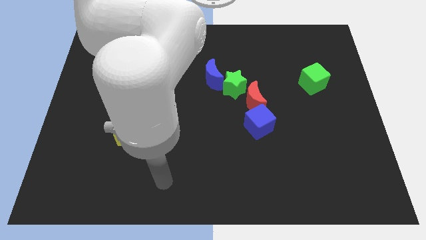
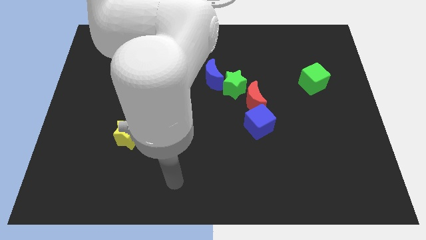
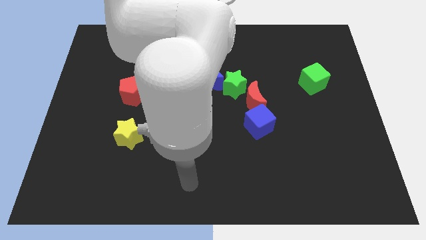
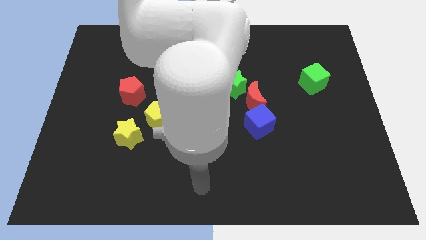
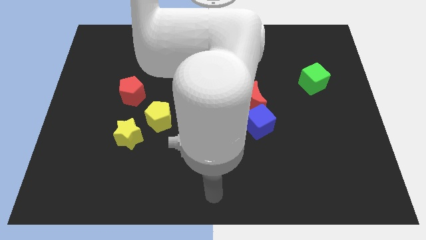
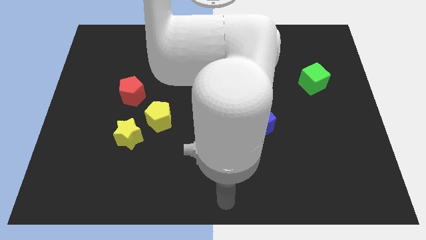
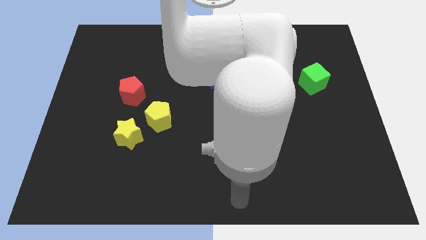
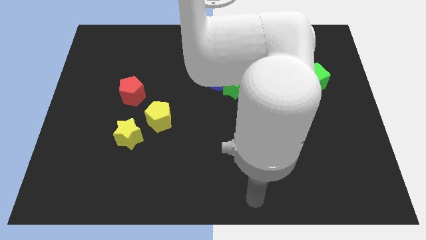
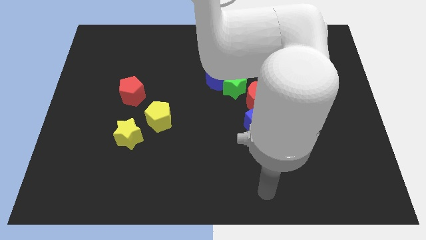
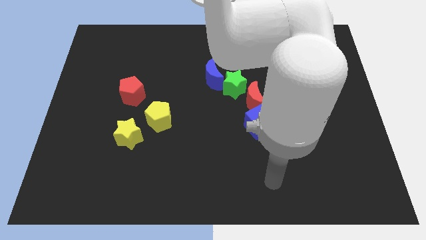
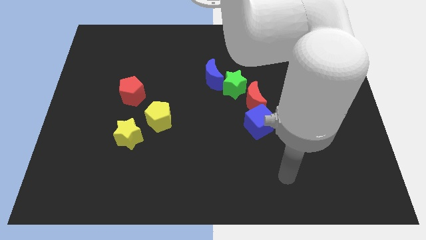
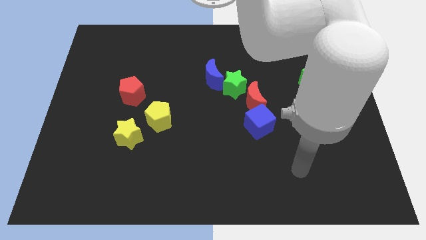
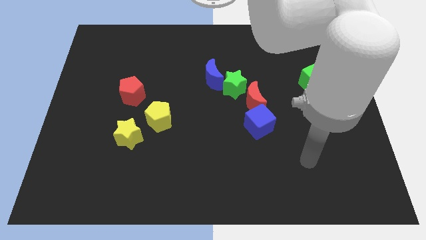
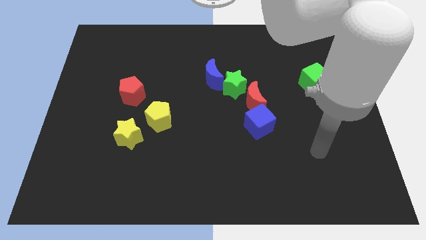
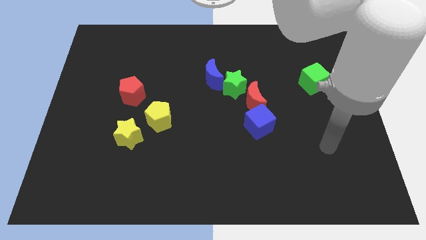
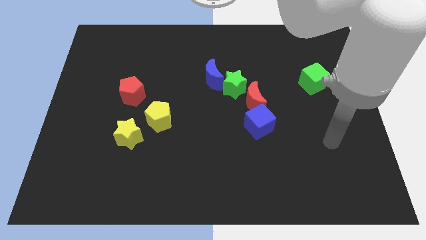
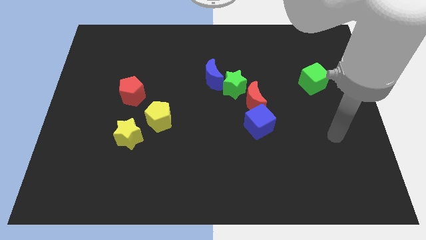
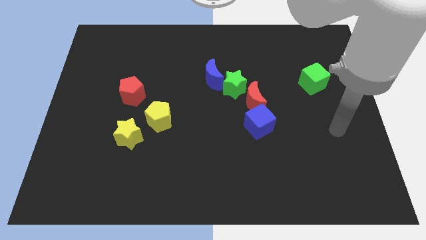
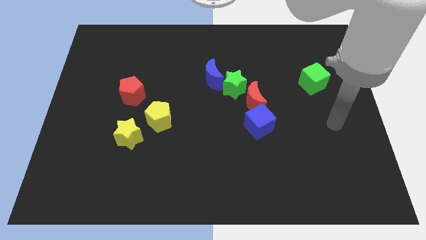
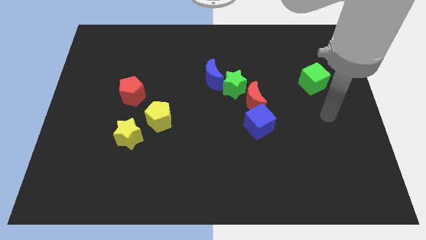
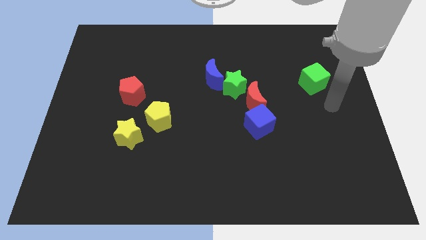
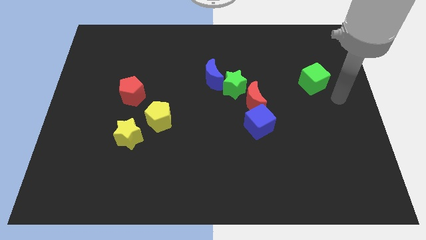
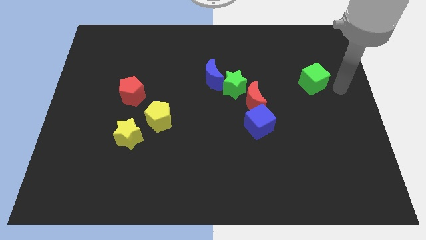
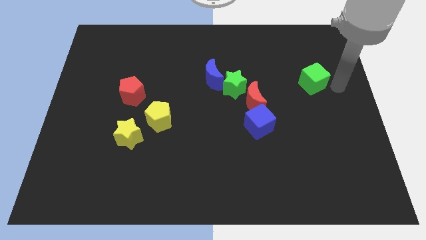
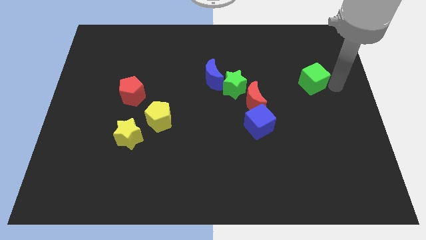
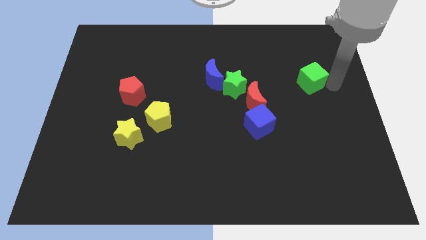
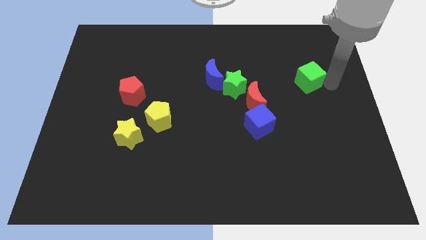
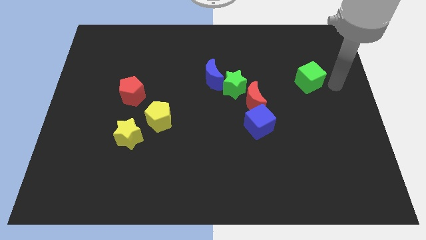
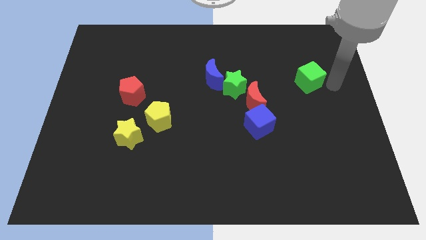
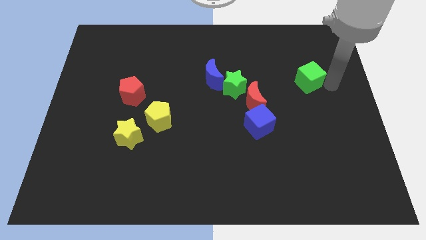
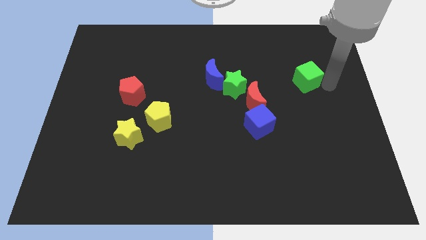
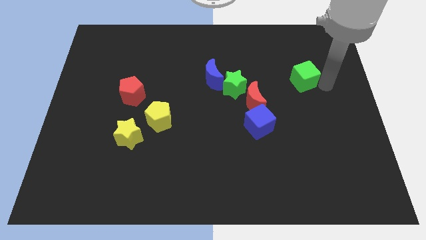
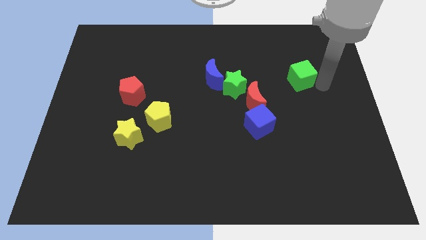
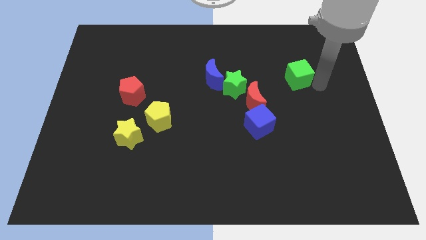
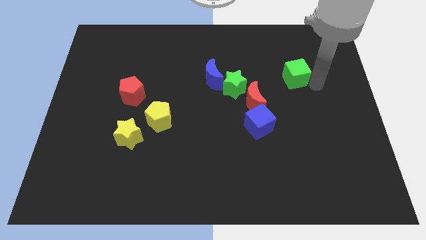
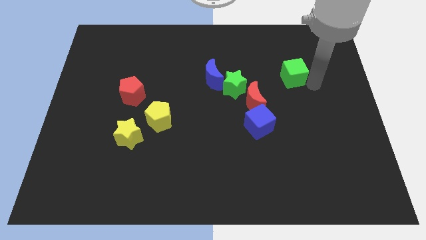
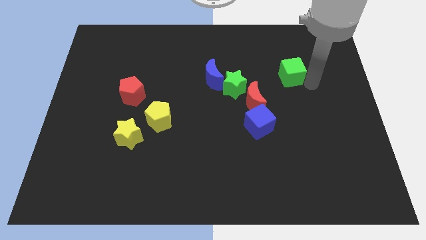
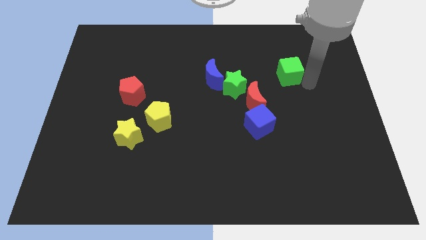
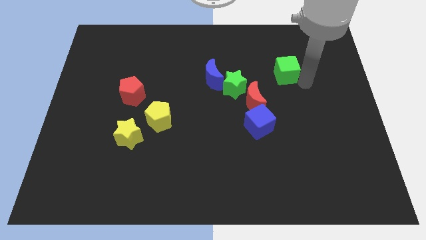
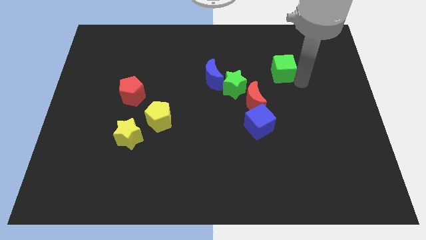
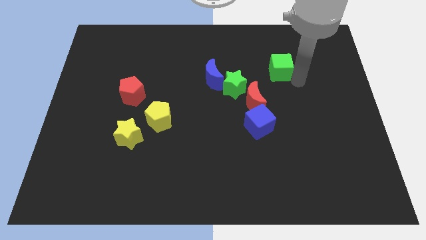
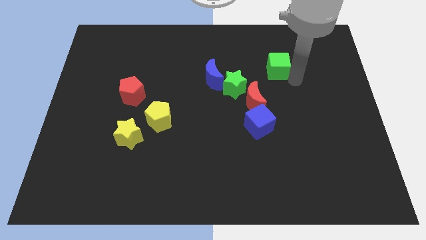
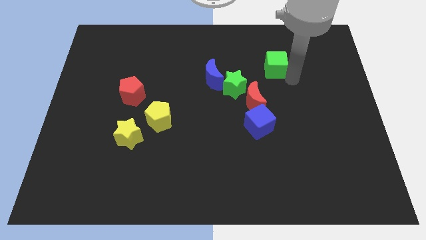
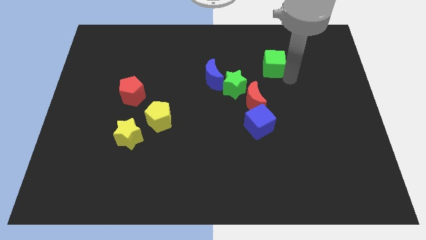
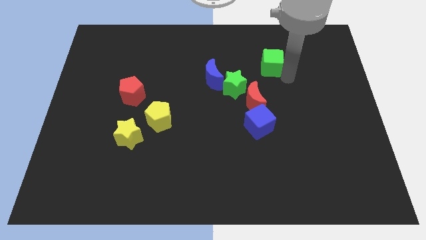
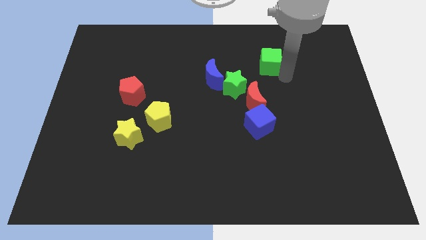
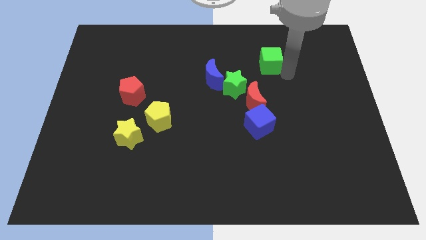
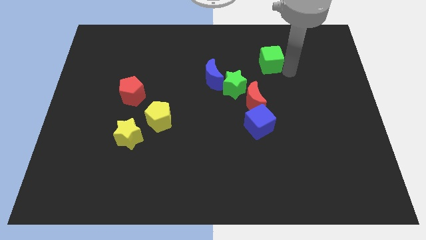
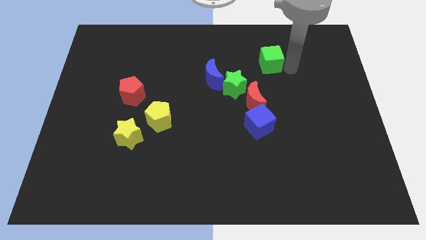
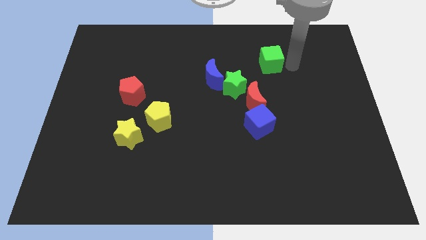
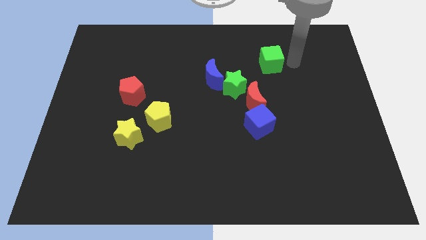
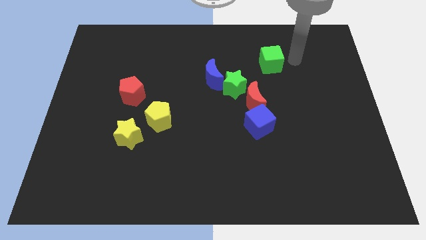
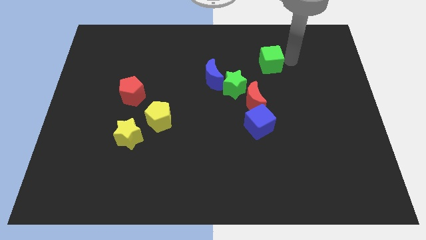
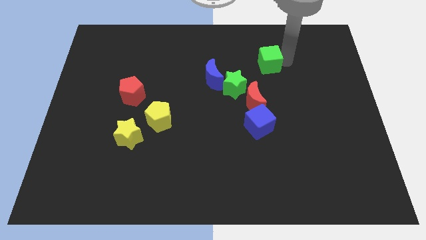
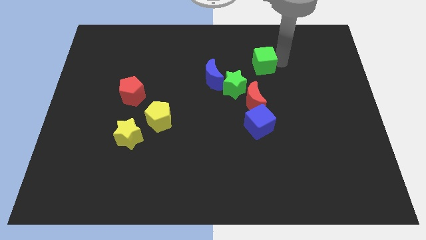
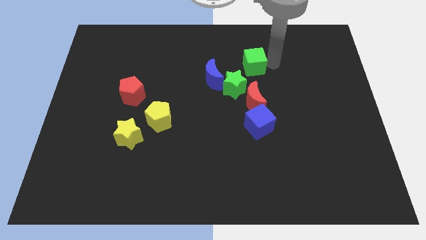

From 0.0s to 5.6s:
put the green cube diagonally up and to the right of the blue moon

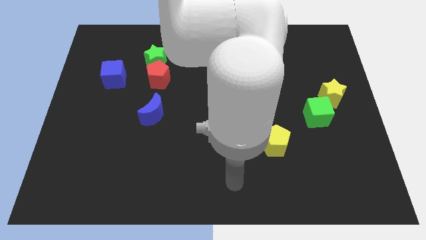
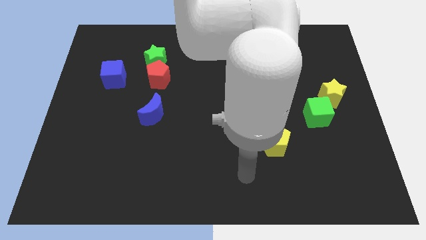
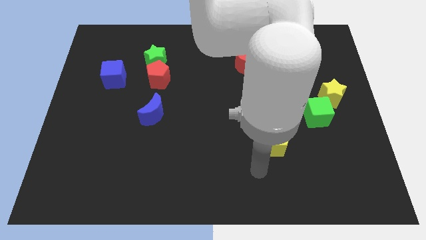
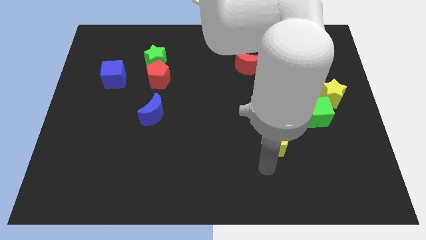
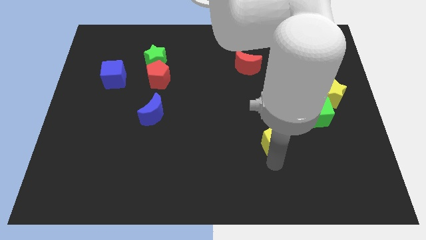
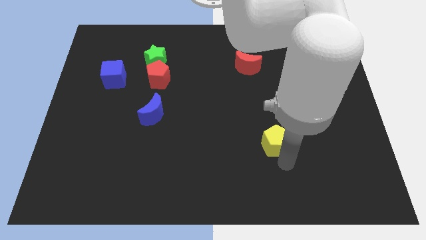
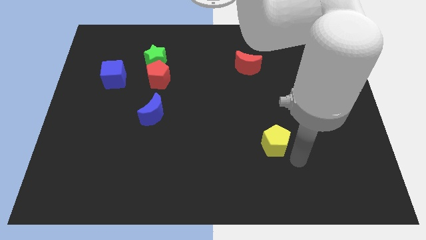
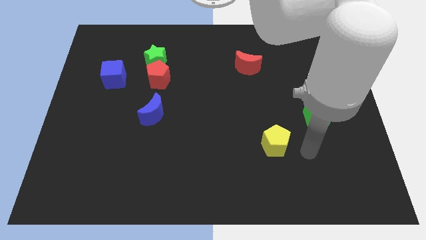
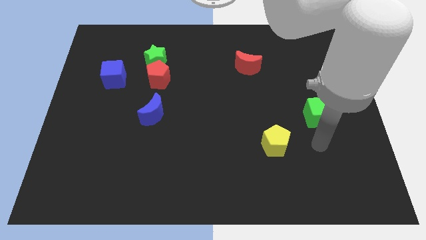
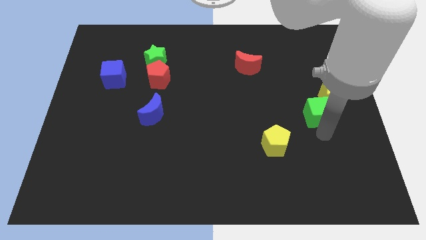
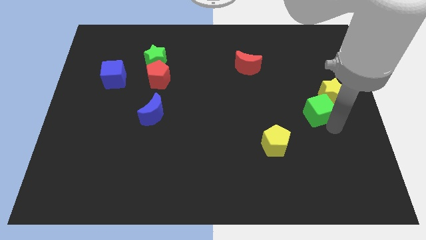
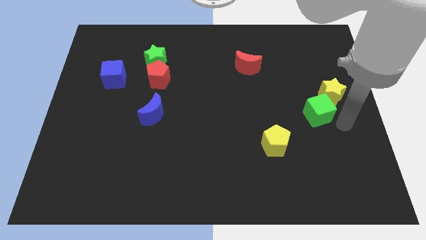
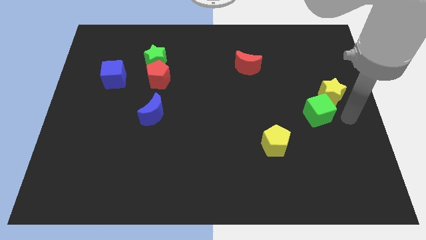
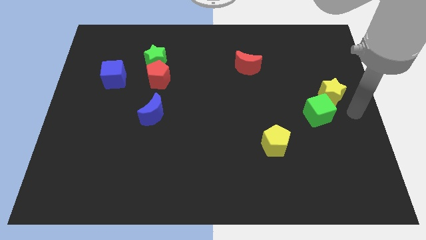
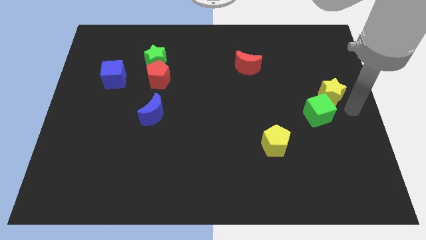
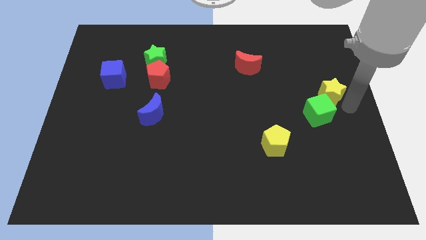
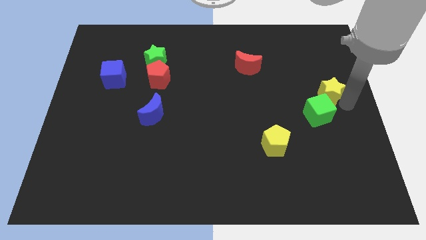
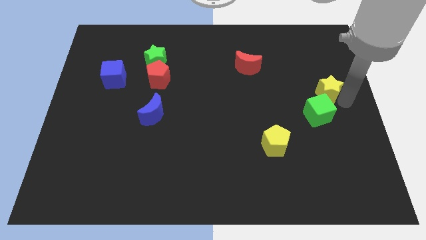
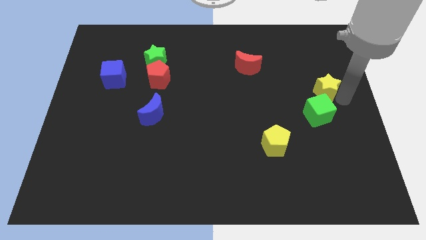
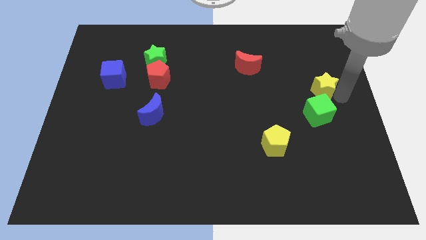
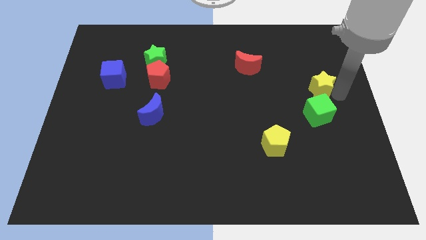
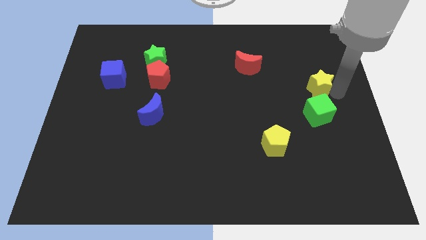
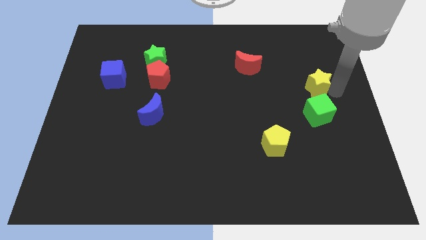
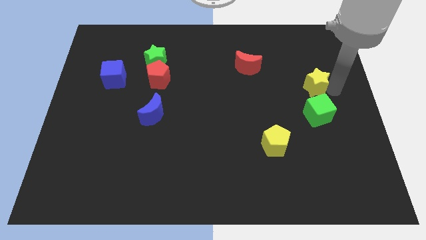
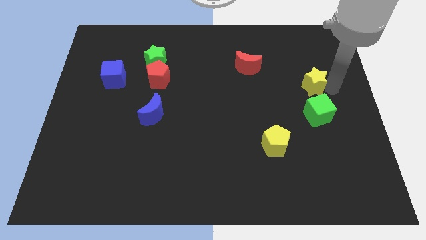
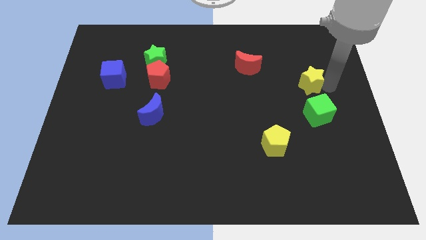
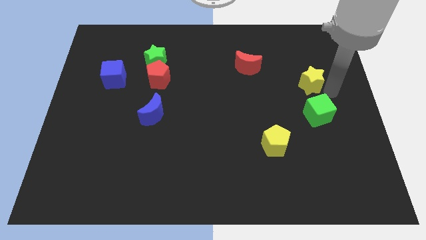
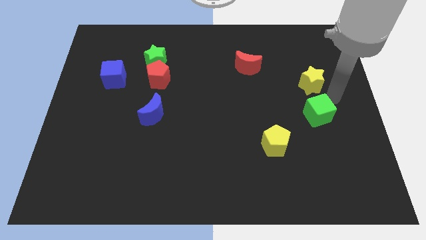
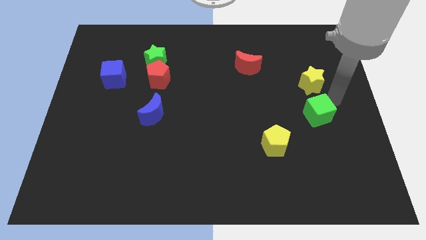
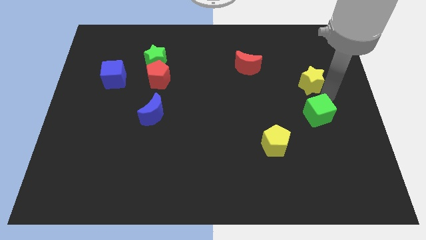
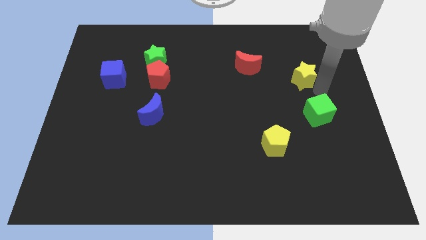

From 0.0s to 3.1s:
put the yellow star just right of the red moon
